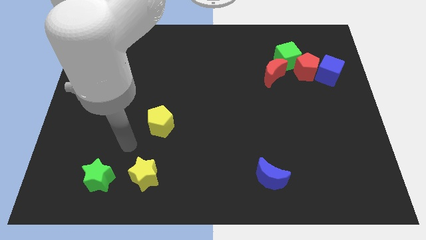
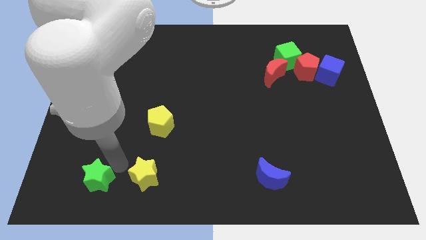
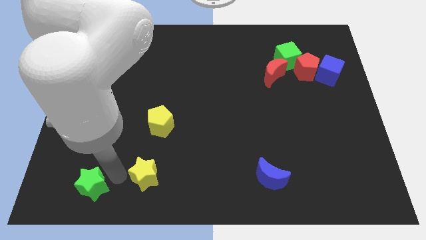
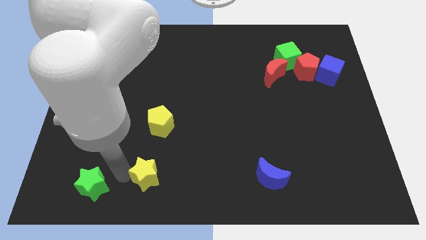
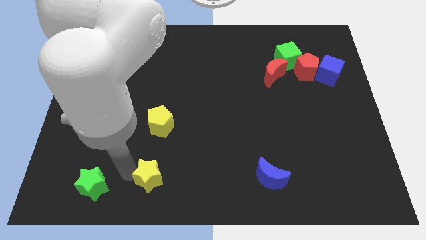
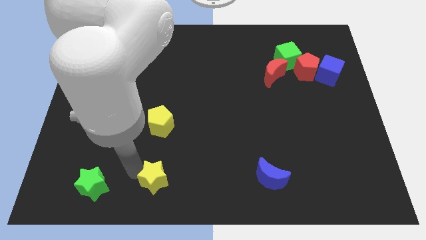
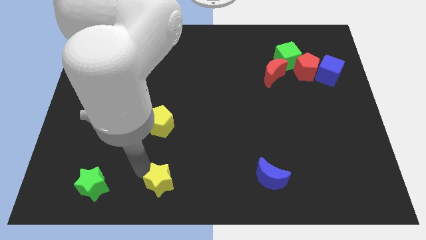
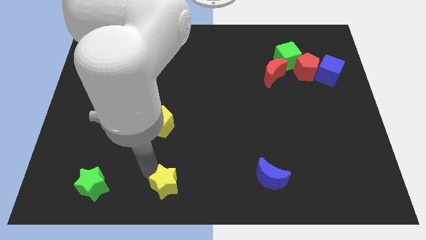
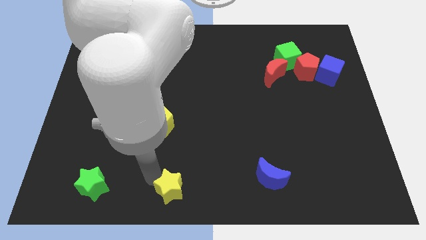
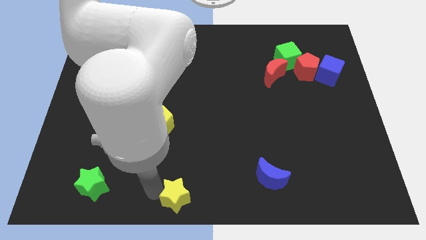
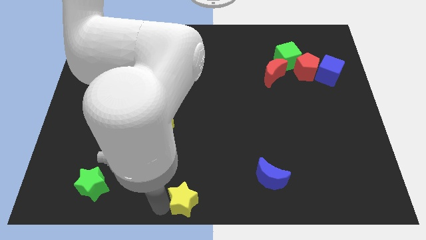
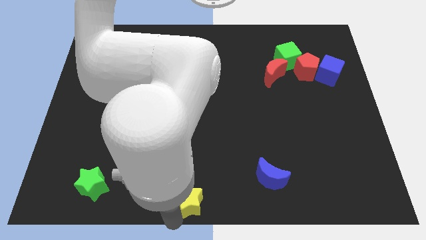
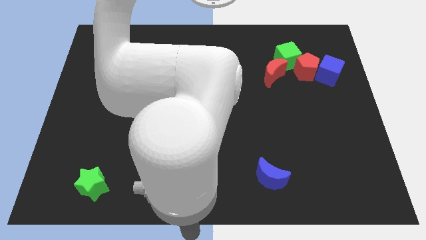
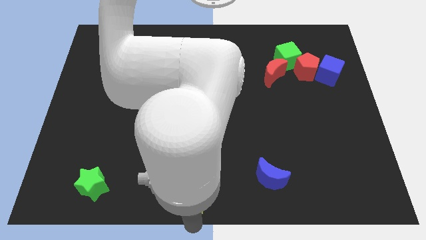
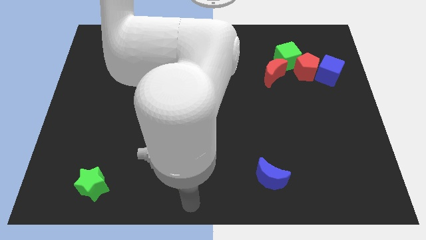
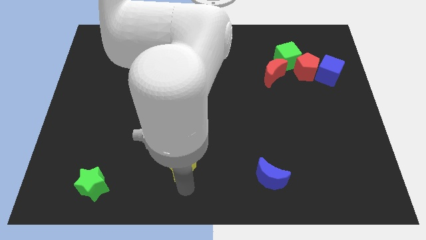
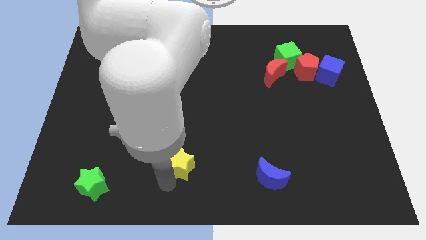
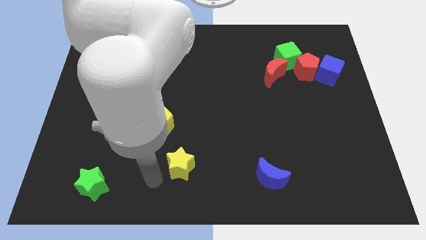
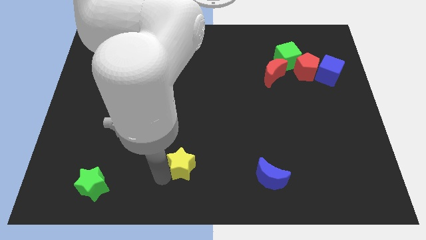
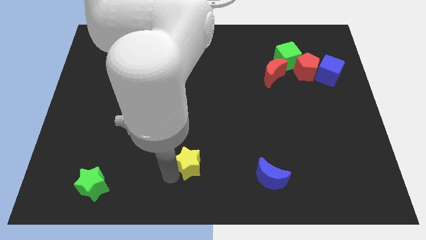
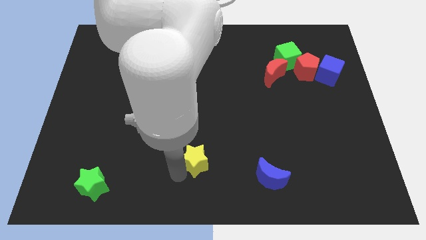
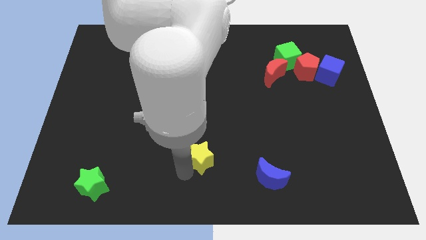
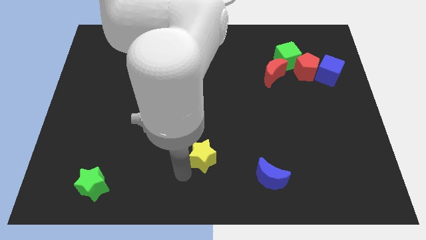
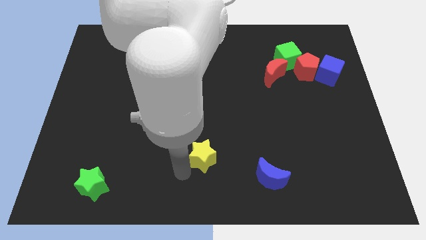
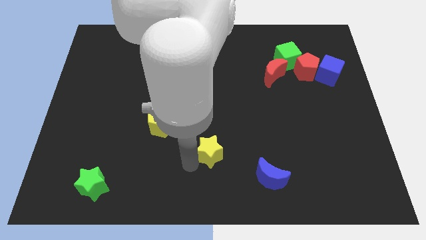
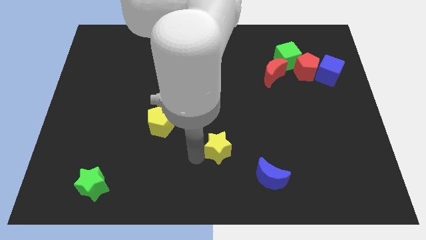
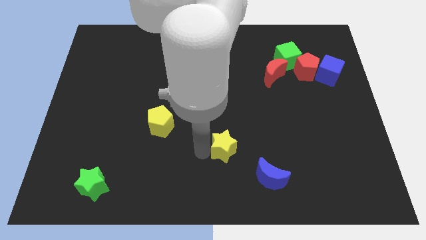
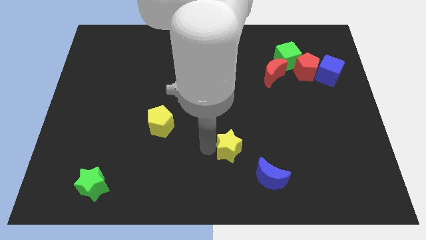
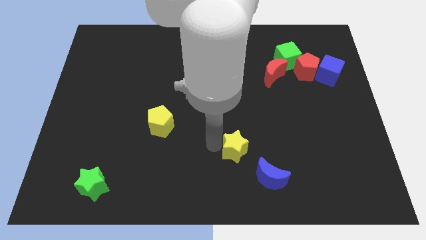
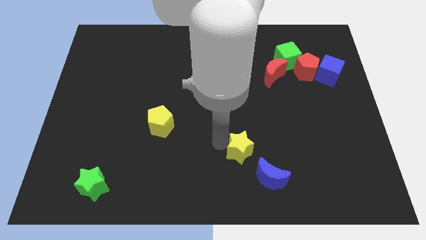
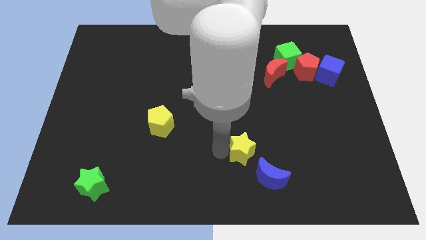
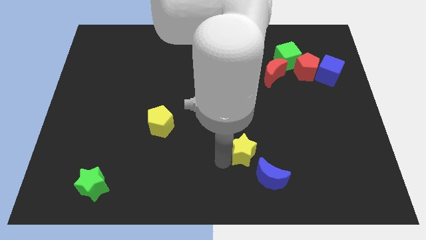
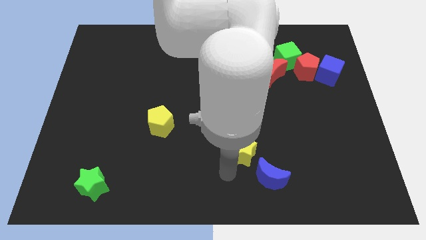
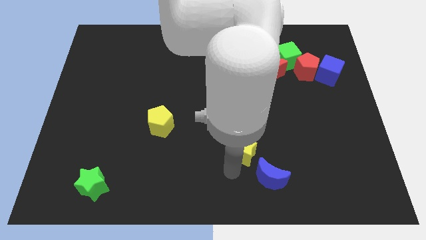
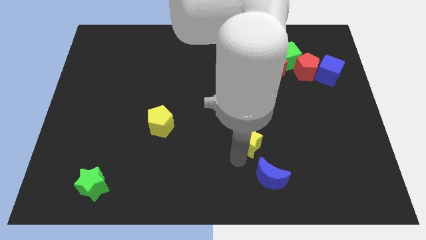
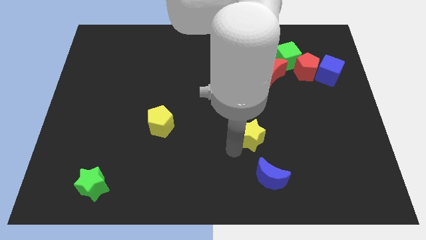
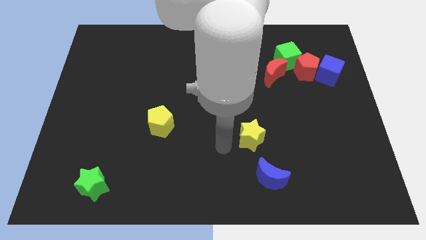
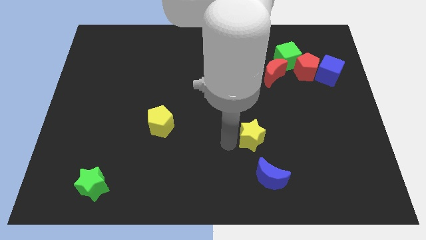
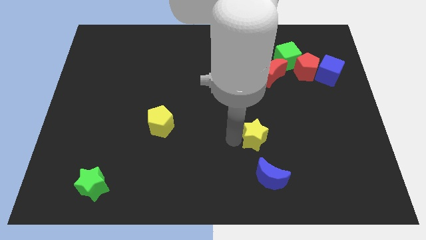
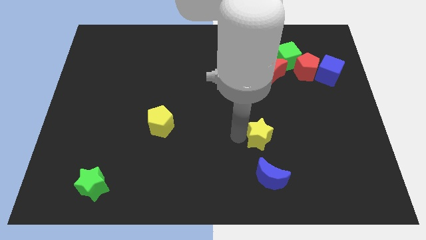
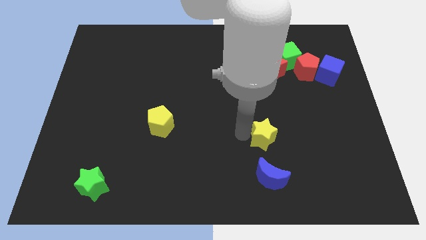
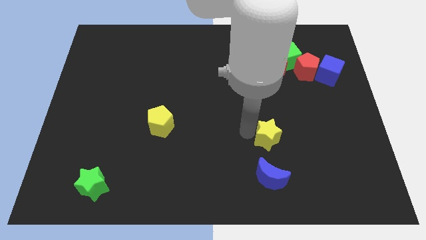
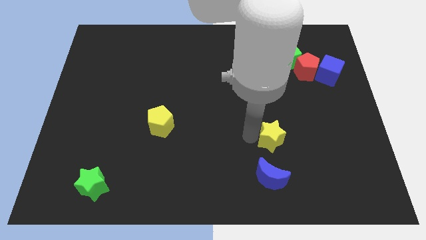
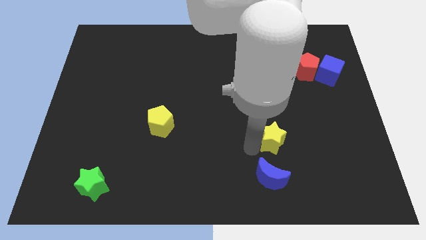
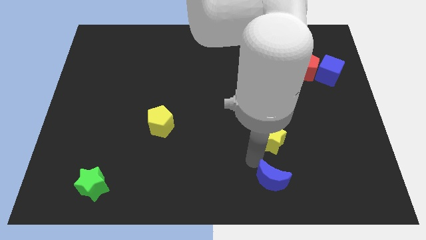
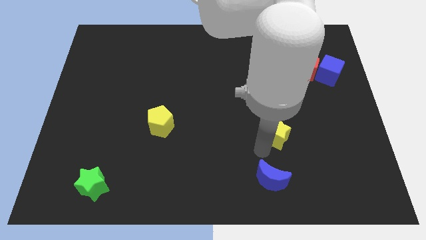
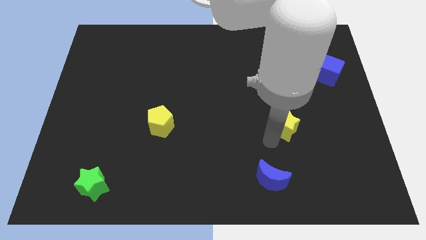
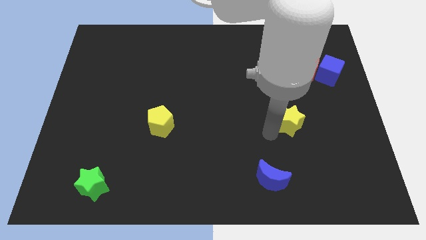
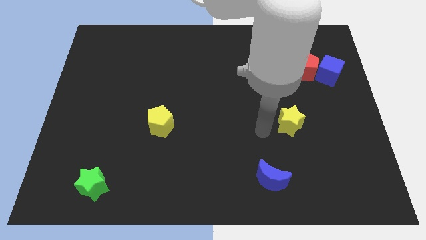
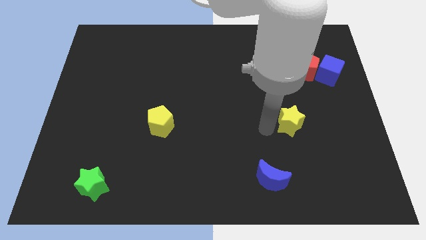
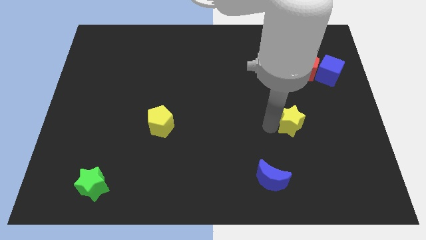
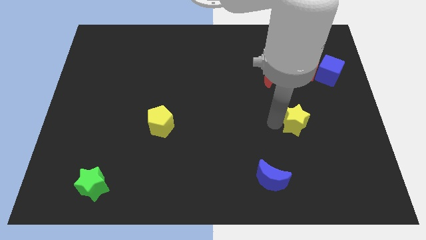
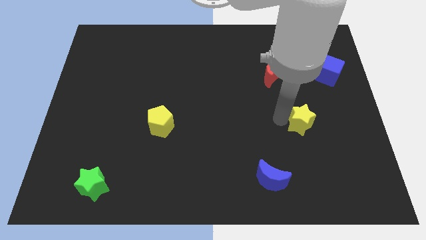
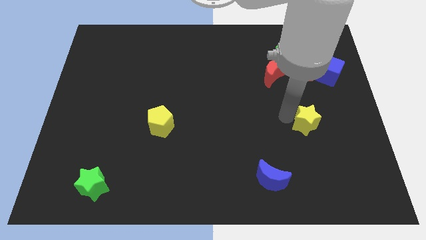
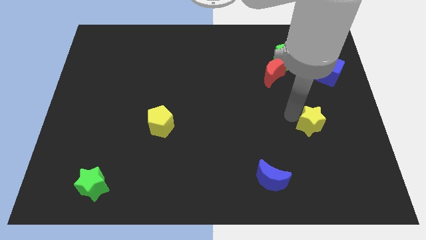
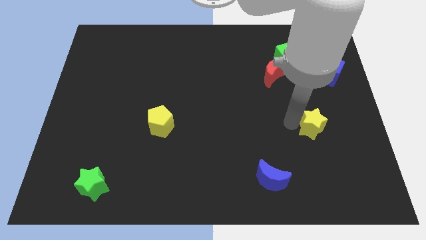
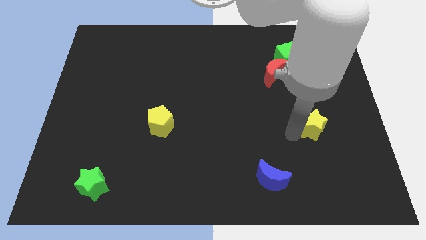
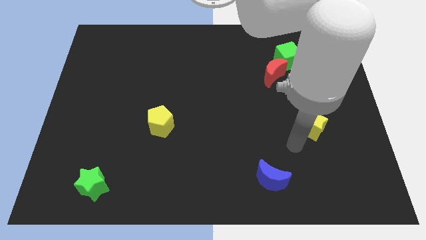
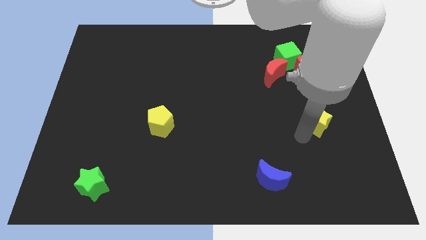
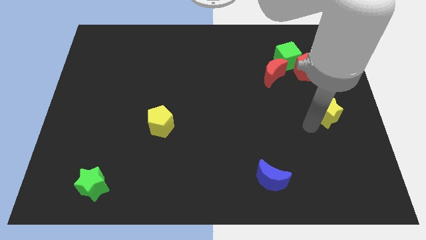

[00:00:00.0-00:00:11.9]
move the yellow star to the right side
